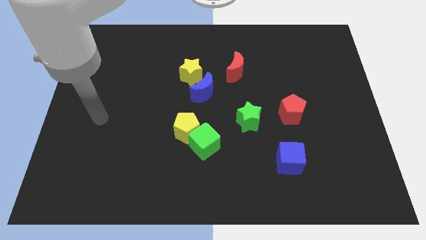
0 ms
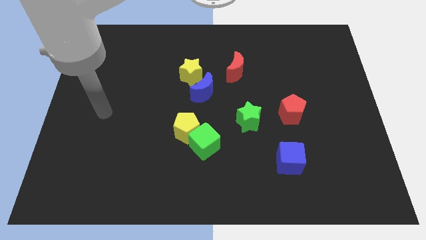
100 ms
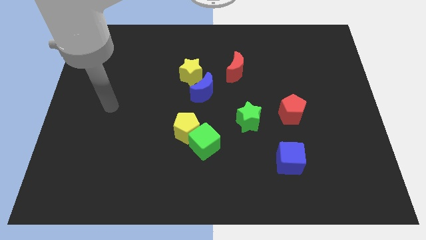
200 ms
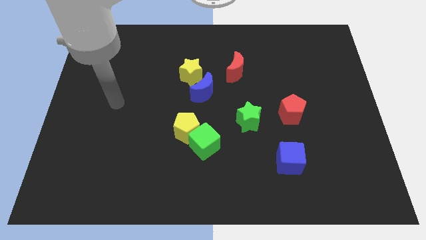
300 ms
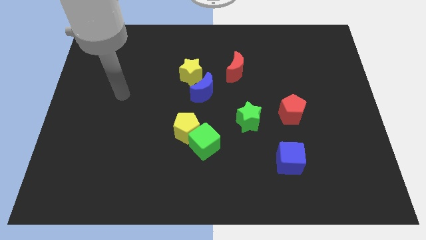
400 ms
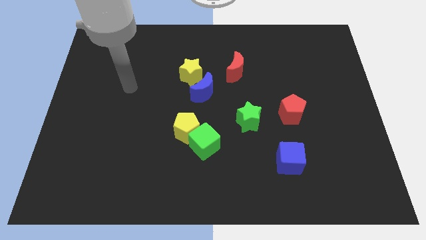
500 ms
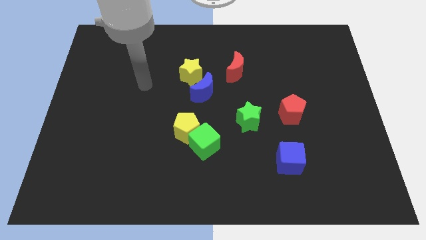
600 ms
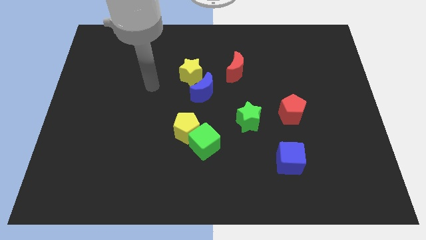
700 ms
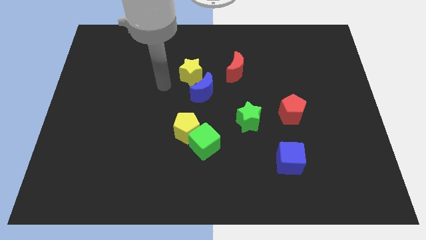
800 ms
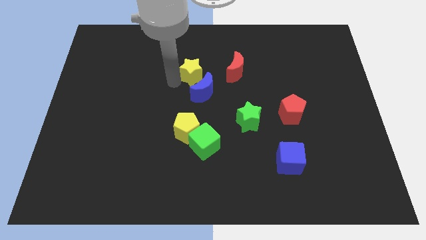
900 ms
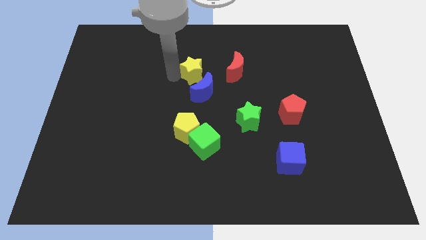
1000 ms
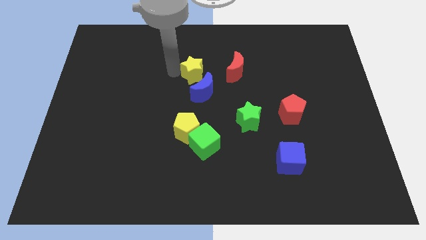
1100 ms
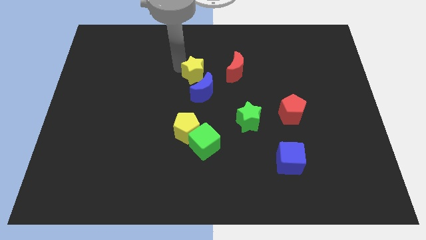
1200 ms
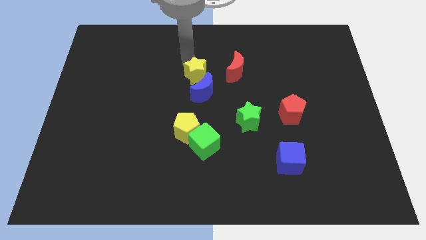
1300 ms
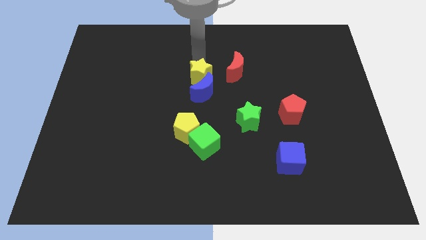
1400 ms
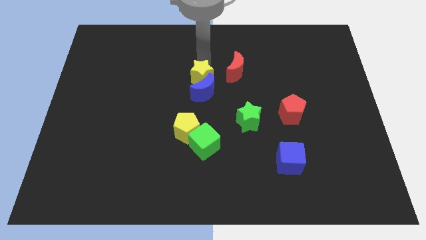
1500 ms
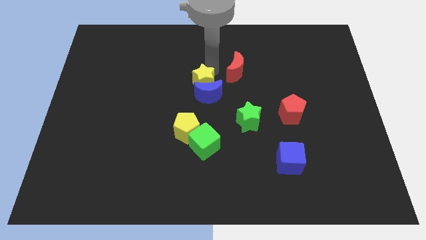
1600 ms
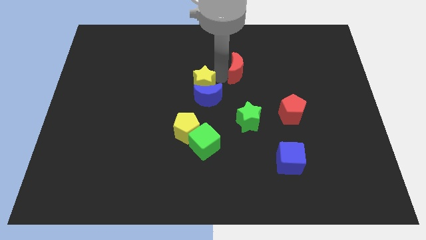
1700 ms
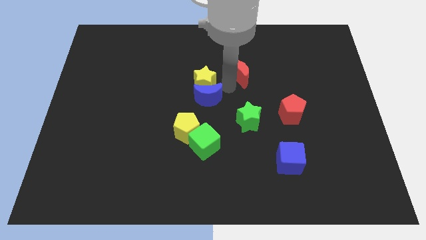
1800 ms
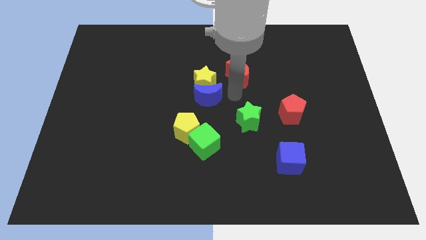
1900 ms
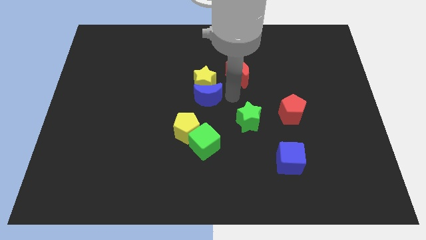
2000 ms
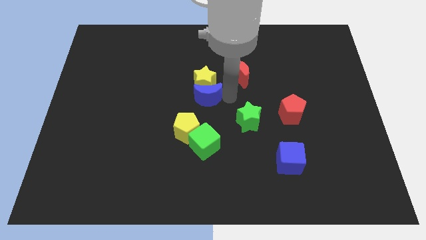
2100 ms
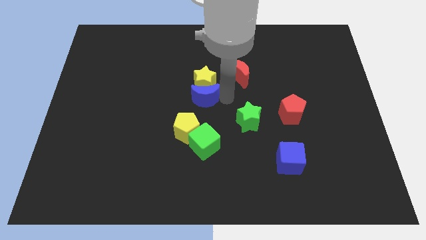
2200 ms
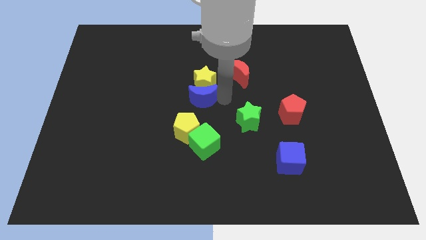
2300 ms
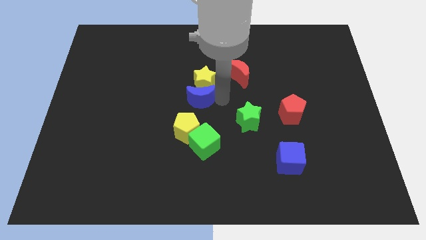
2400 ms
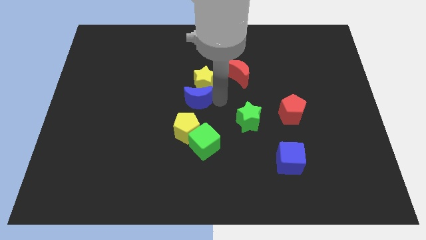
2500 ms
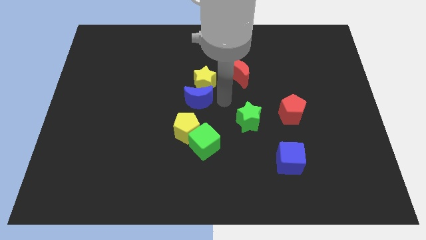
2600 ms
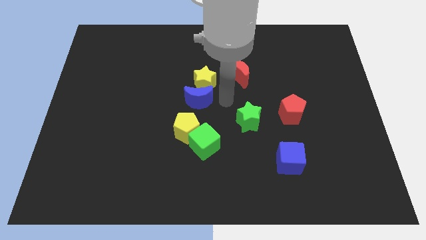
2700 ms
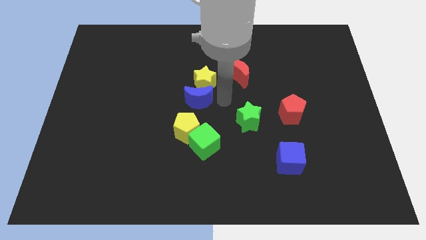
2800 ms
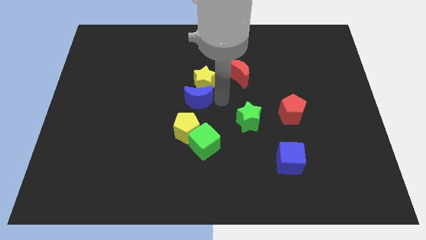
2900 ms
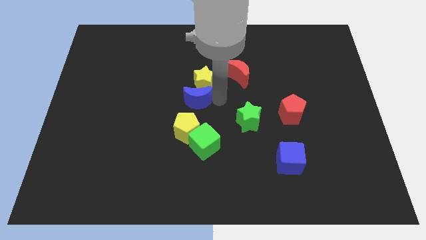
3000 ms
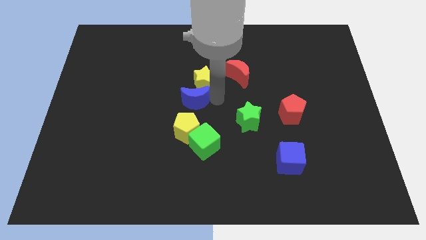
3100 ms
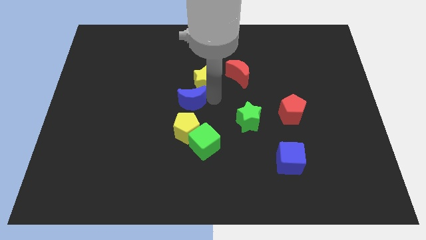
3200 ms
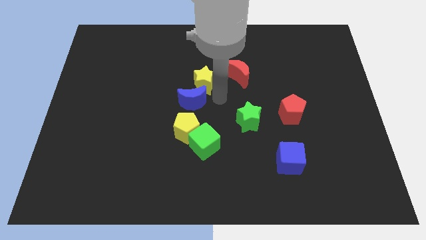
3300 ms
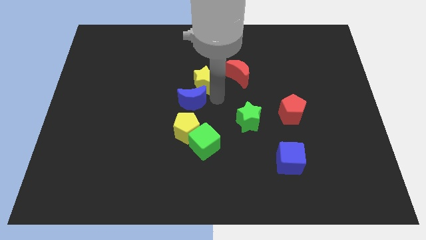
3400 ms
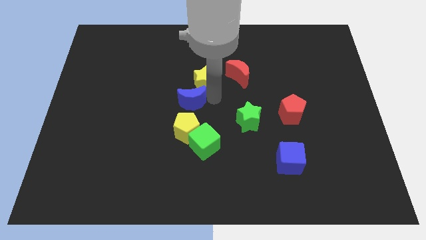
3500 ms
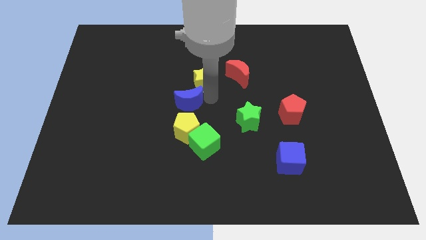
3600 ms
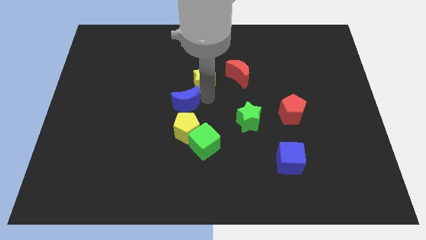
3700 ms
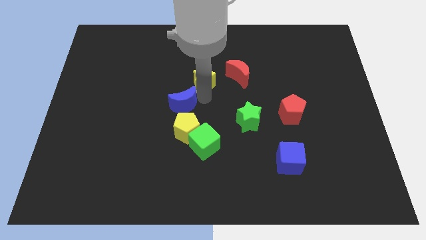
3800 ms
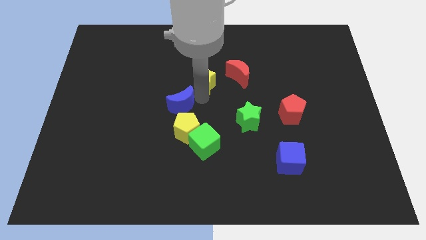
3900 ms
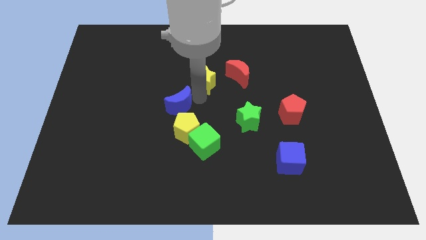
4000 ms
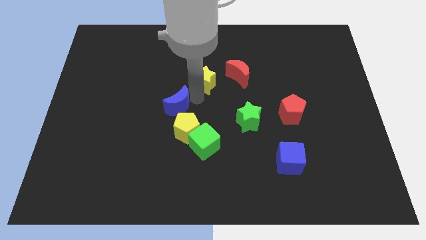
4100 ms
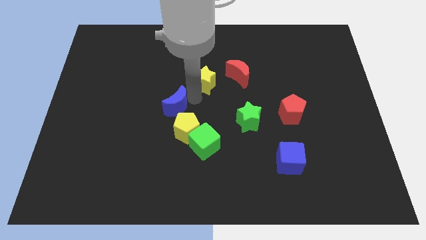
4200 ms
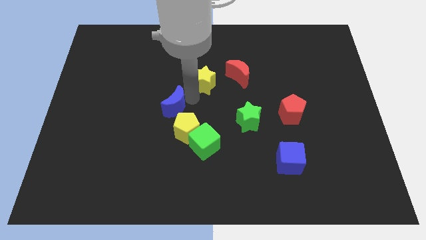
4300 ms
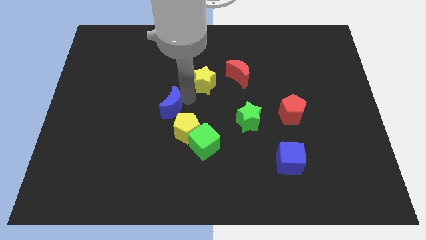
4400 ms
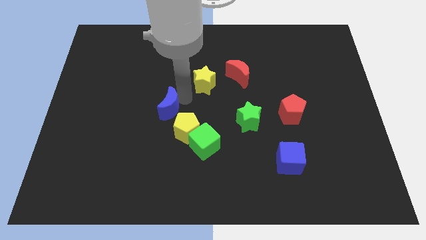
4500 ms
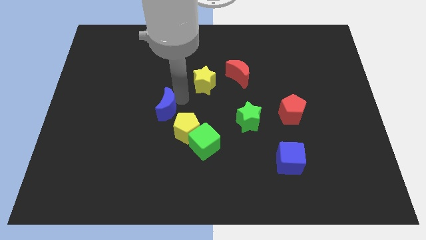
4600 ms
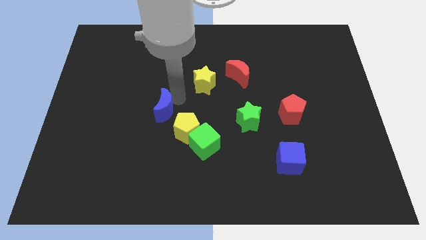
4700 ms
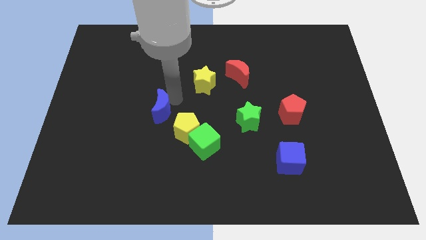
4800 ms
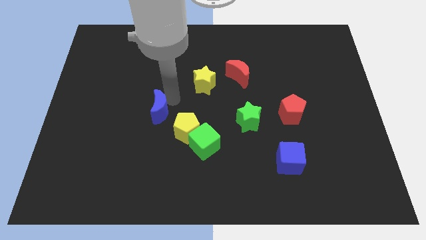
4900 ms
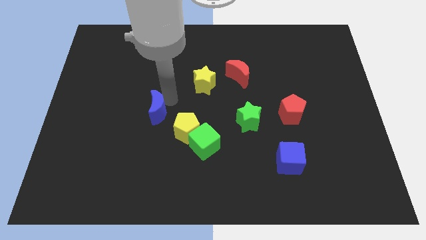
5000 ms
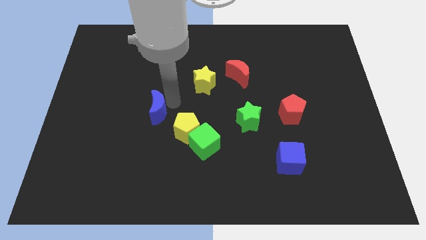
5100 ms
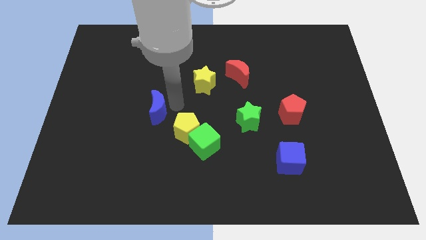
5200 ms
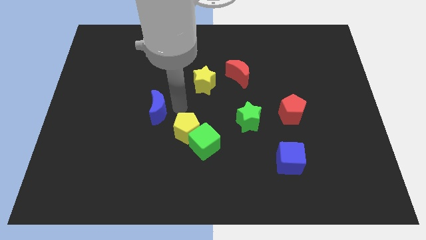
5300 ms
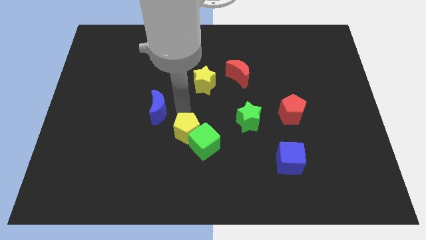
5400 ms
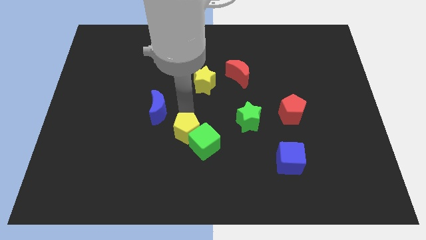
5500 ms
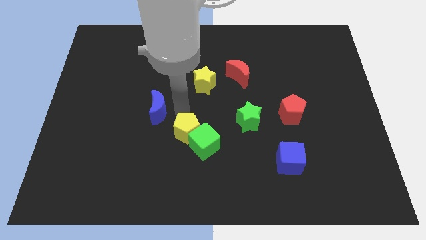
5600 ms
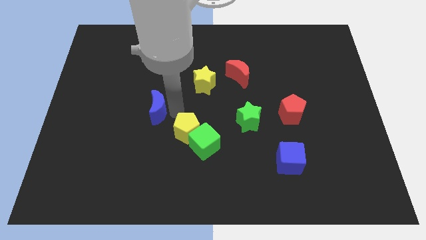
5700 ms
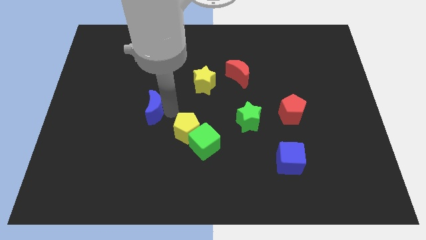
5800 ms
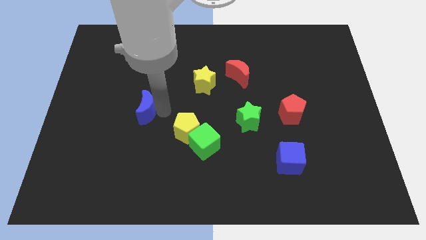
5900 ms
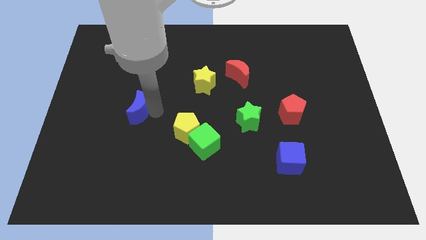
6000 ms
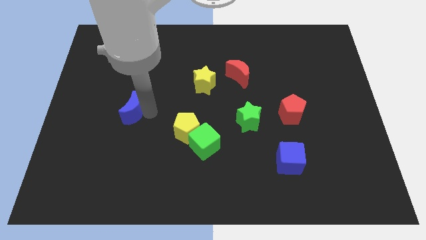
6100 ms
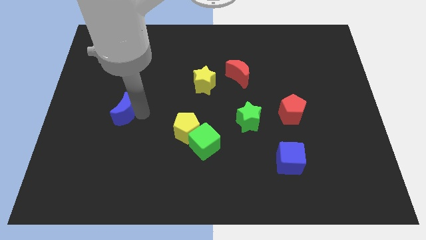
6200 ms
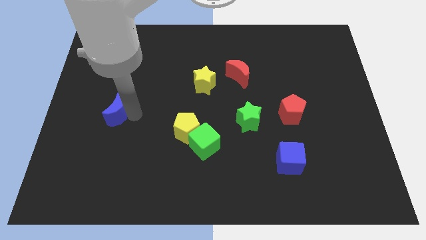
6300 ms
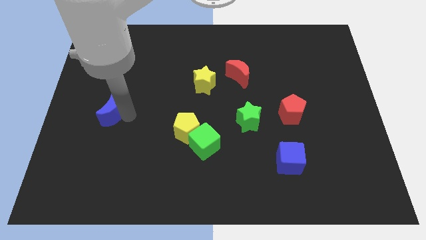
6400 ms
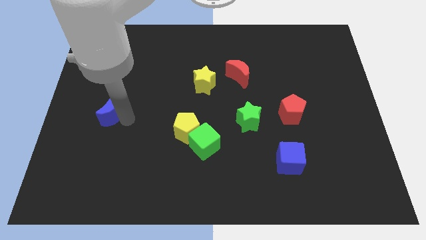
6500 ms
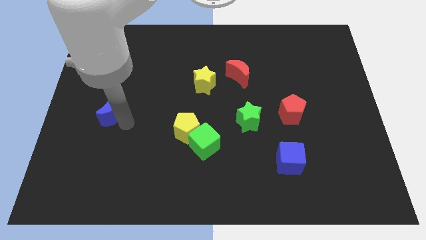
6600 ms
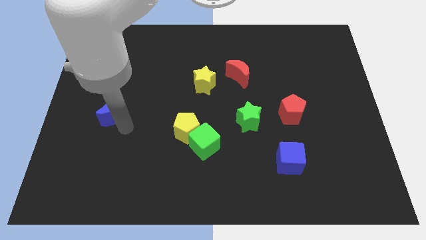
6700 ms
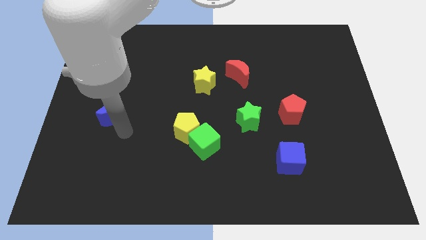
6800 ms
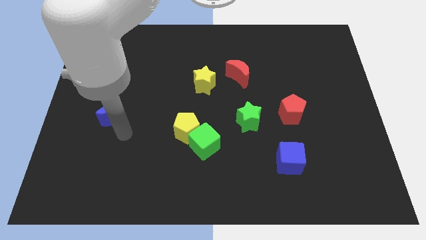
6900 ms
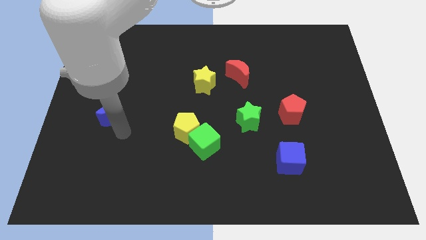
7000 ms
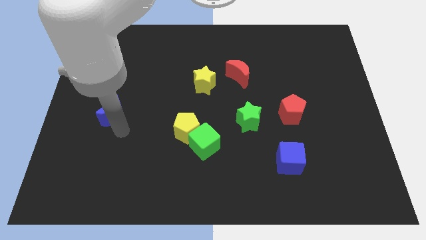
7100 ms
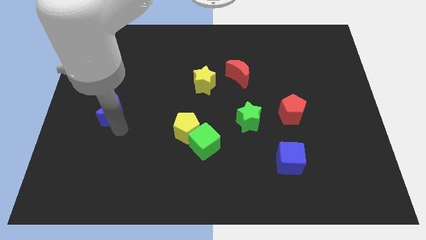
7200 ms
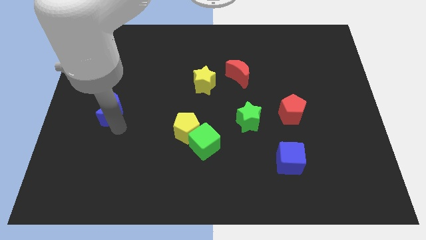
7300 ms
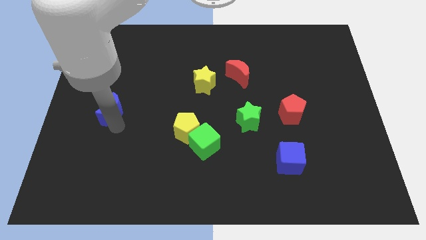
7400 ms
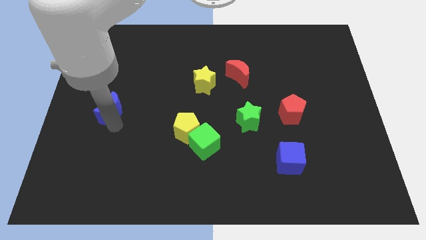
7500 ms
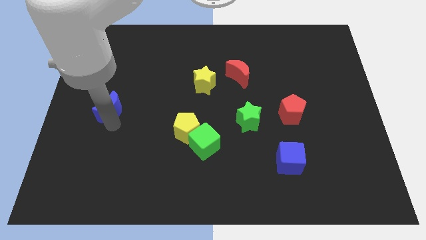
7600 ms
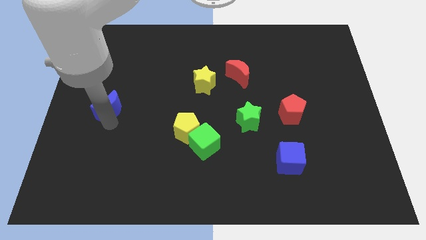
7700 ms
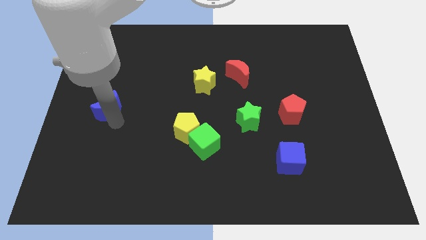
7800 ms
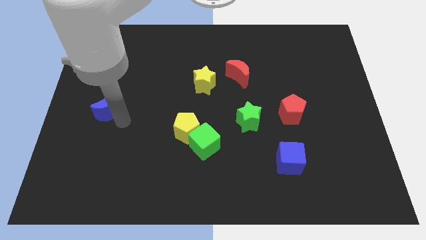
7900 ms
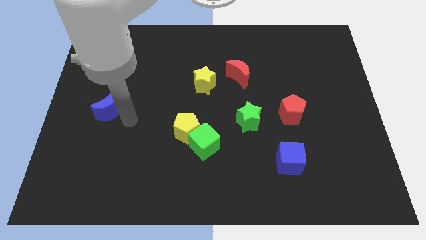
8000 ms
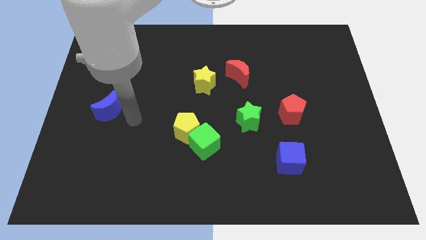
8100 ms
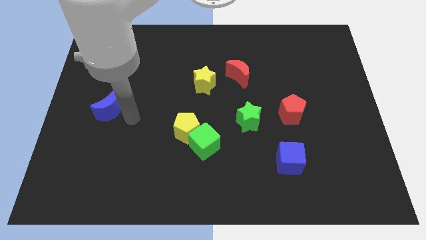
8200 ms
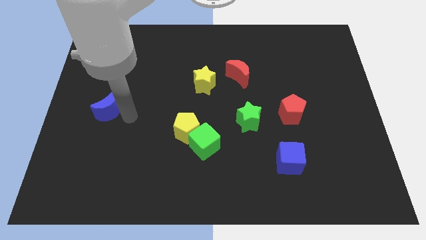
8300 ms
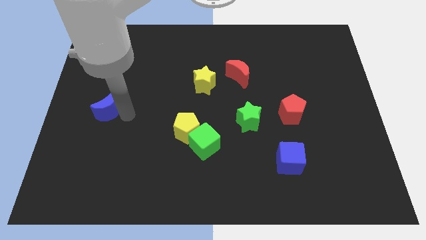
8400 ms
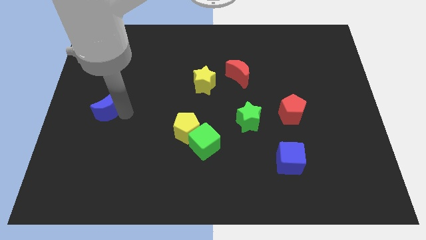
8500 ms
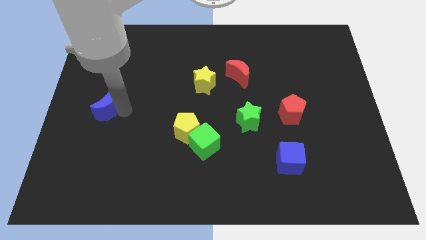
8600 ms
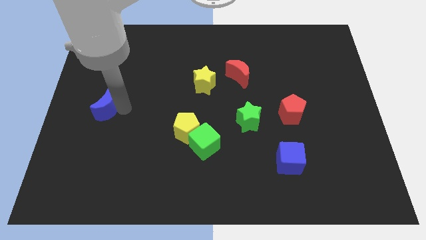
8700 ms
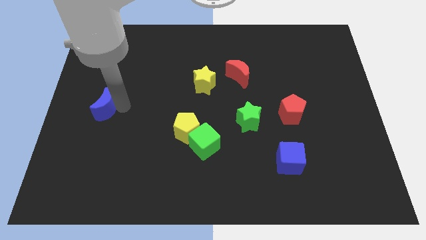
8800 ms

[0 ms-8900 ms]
push the blue moon to the center left
